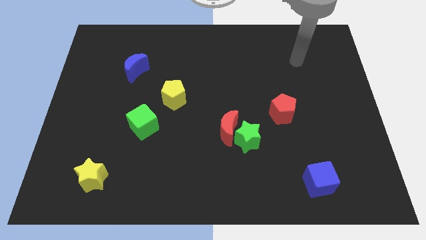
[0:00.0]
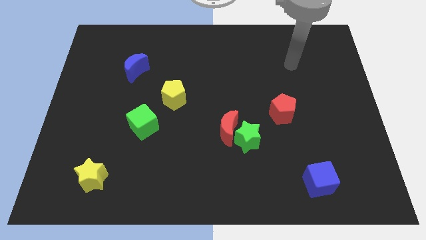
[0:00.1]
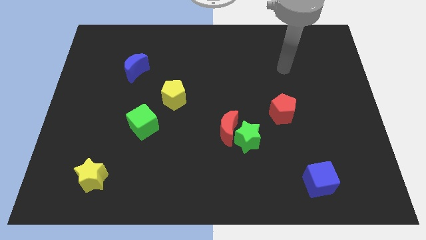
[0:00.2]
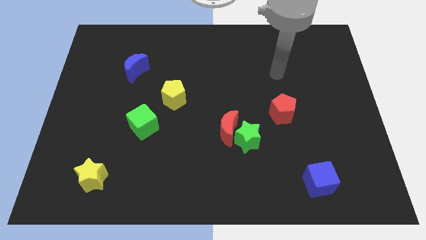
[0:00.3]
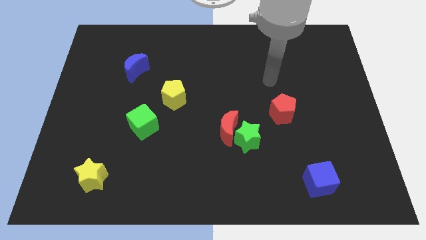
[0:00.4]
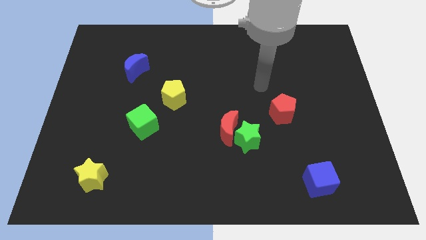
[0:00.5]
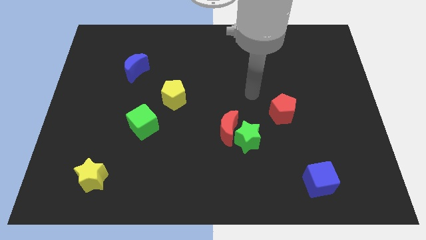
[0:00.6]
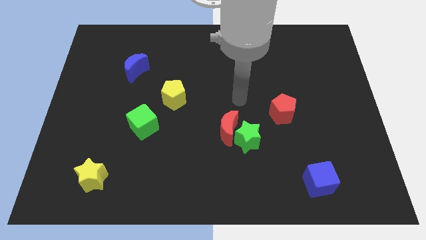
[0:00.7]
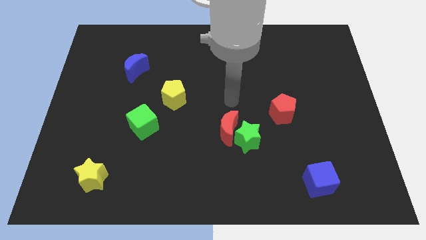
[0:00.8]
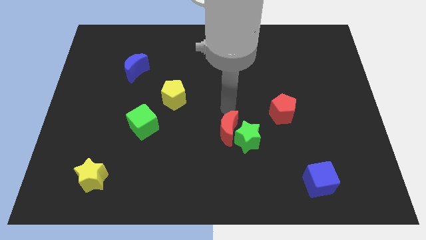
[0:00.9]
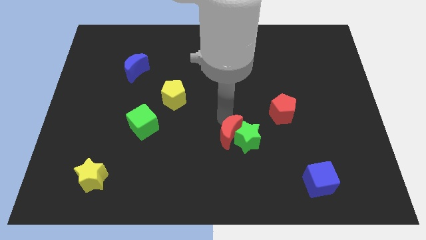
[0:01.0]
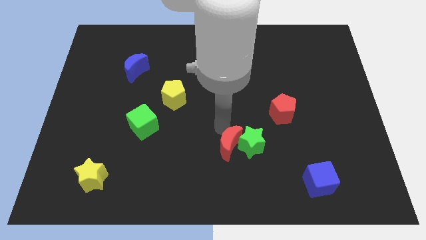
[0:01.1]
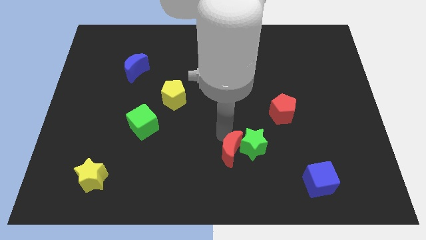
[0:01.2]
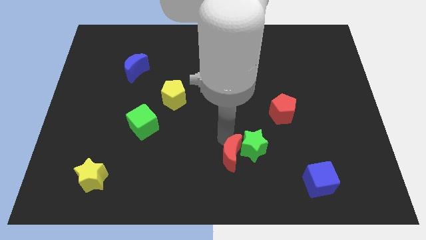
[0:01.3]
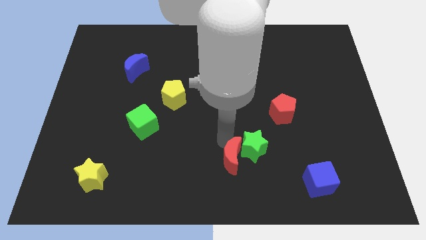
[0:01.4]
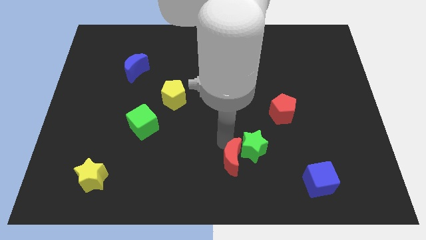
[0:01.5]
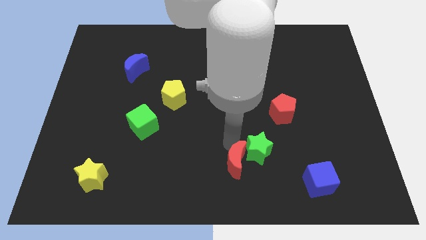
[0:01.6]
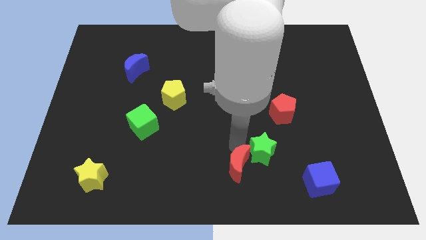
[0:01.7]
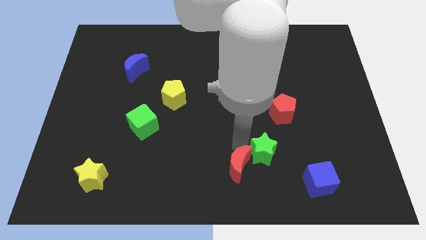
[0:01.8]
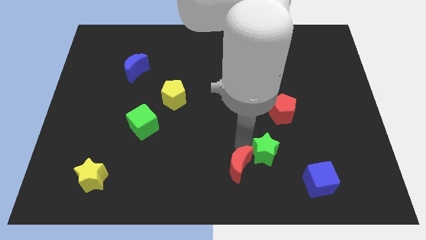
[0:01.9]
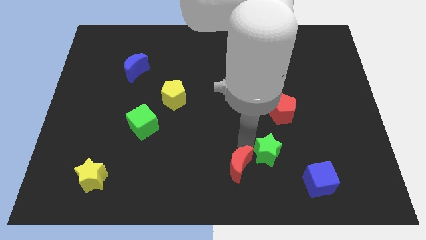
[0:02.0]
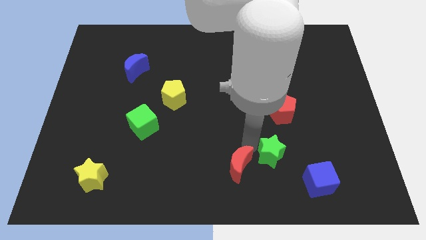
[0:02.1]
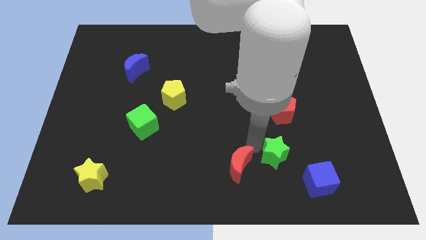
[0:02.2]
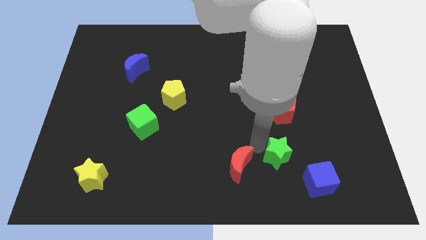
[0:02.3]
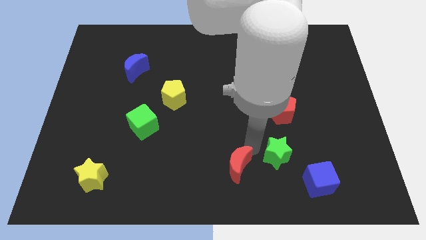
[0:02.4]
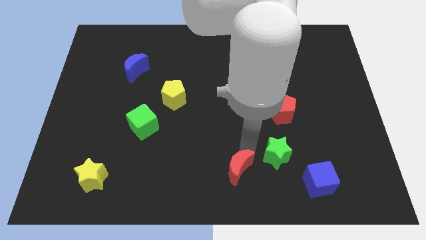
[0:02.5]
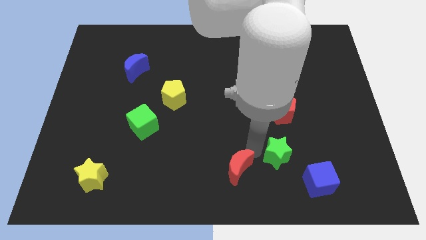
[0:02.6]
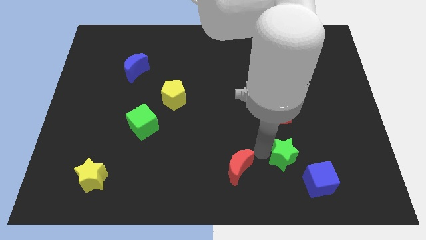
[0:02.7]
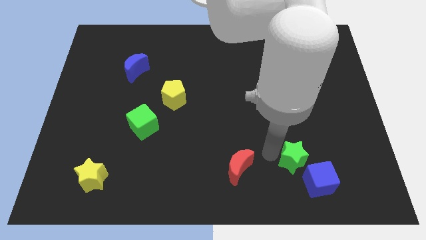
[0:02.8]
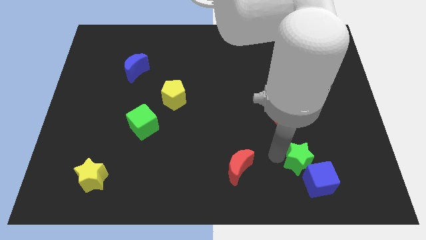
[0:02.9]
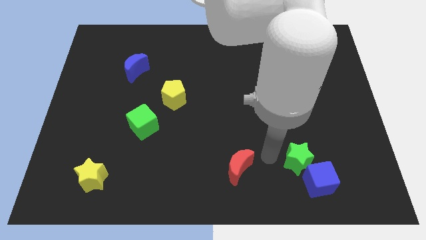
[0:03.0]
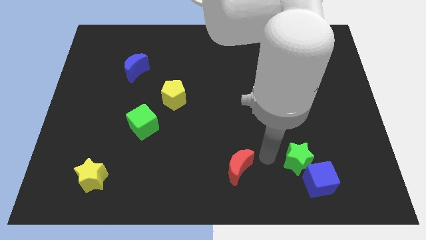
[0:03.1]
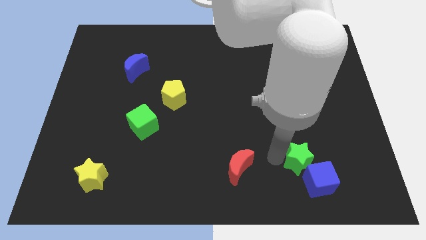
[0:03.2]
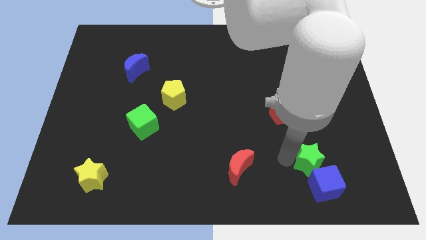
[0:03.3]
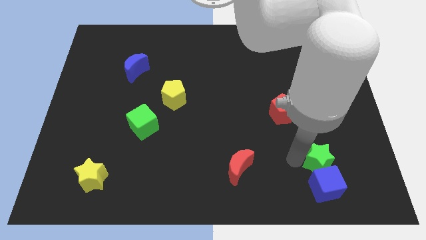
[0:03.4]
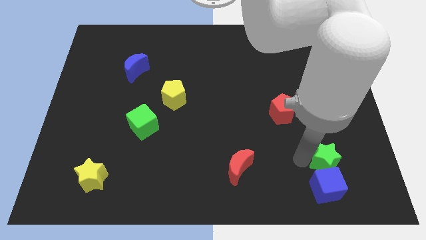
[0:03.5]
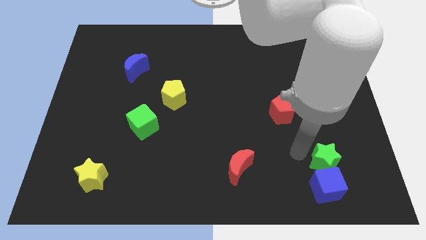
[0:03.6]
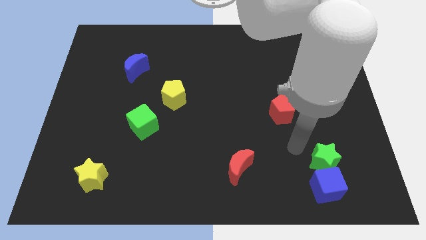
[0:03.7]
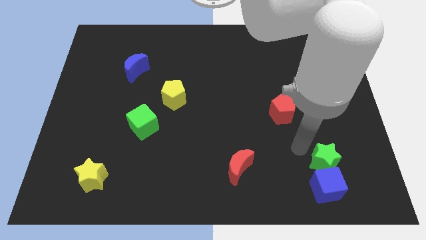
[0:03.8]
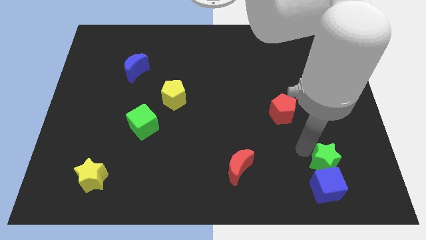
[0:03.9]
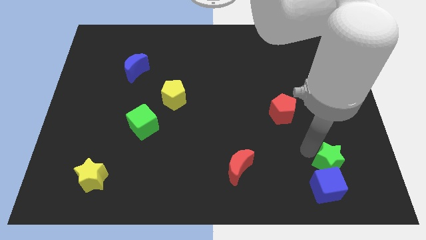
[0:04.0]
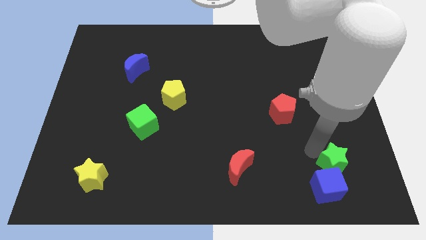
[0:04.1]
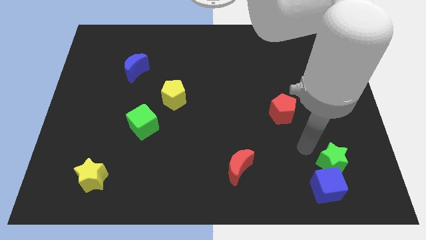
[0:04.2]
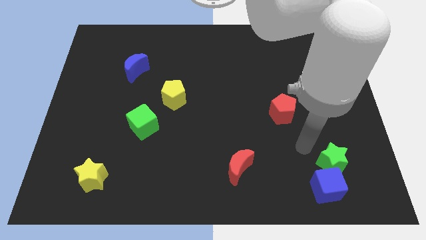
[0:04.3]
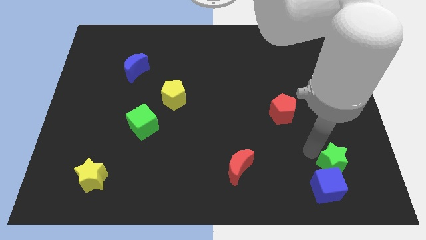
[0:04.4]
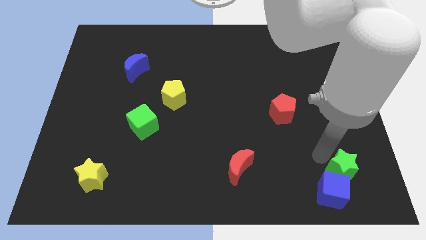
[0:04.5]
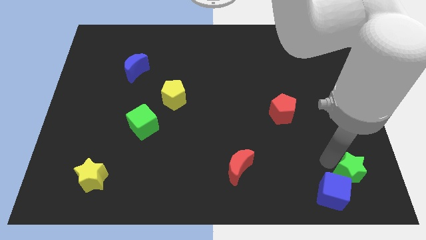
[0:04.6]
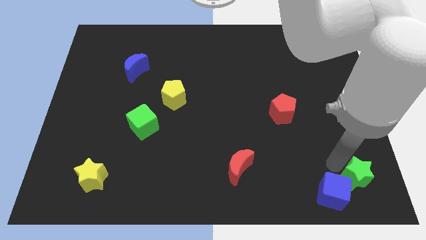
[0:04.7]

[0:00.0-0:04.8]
put the green star to the bottom right

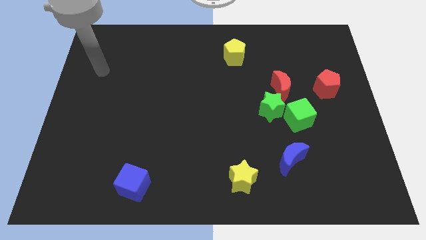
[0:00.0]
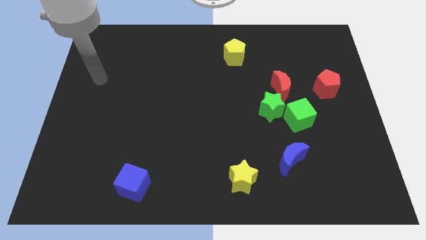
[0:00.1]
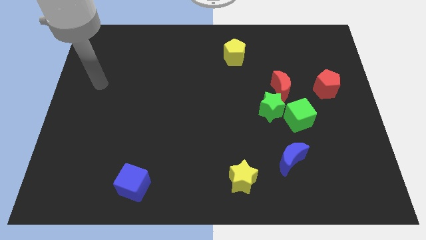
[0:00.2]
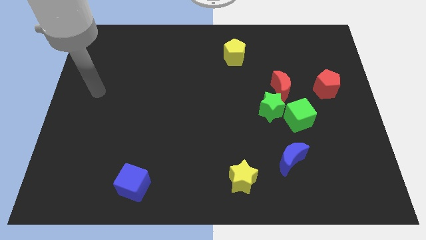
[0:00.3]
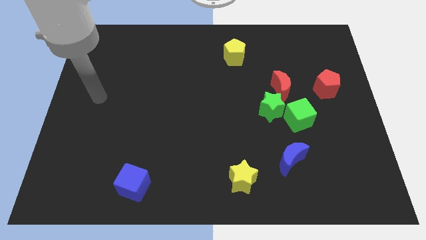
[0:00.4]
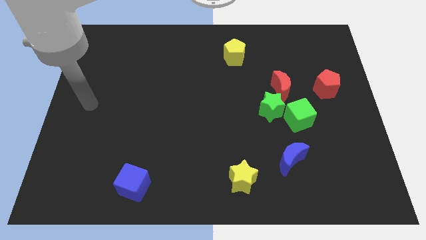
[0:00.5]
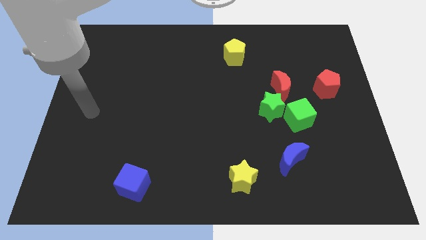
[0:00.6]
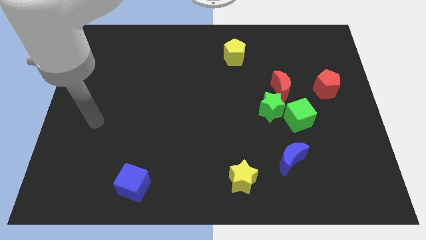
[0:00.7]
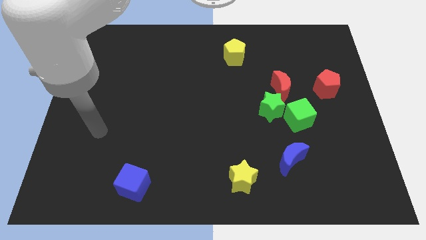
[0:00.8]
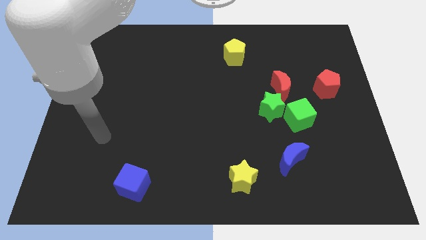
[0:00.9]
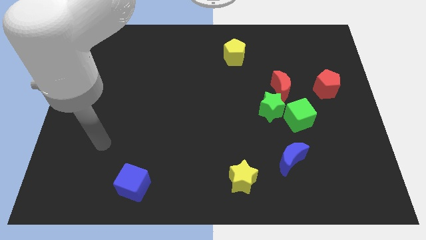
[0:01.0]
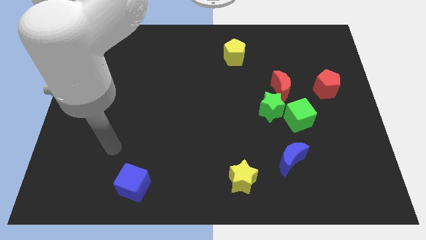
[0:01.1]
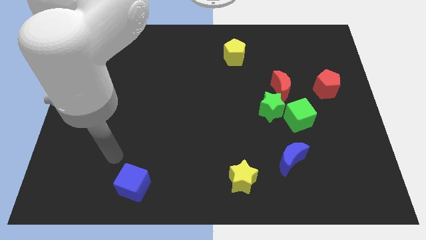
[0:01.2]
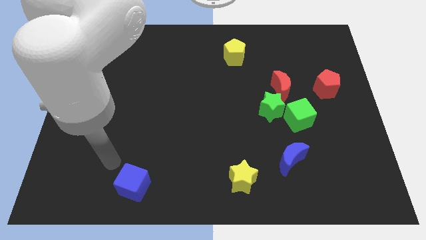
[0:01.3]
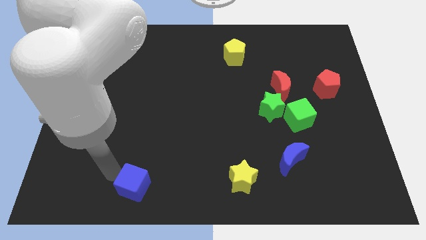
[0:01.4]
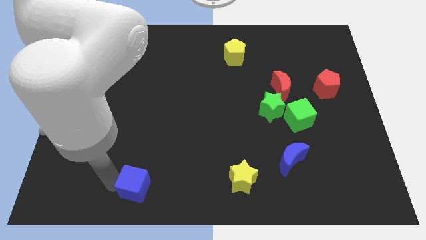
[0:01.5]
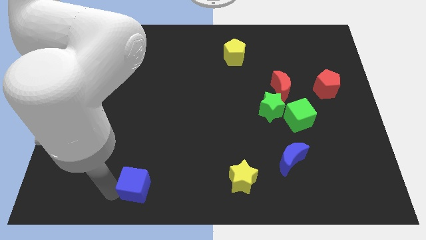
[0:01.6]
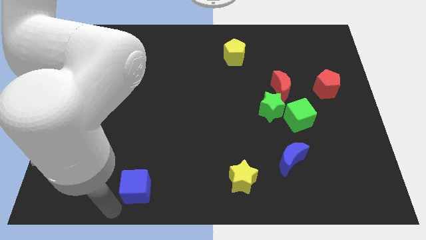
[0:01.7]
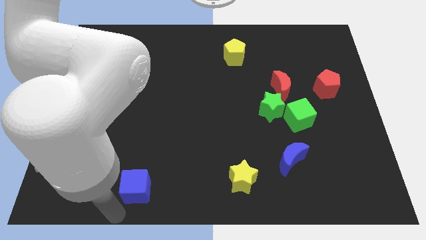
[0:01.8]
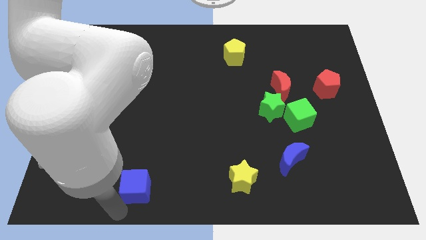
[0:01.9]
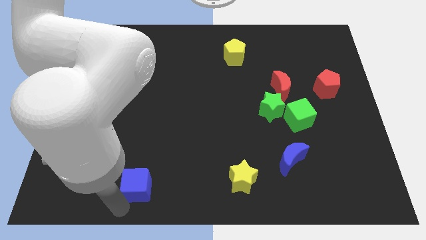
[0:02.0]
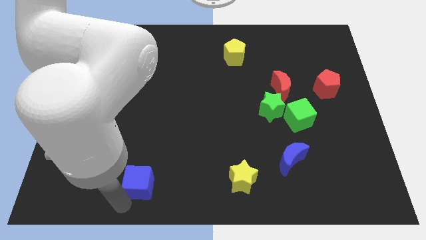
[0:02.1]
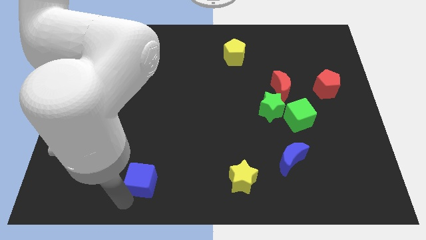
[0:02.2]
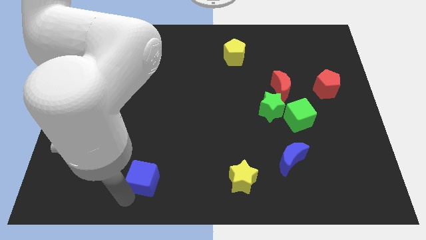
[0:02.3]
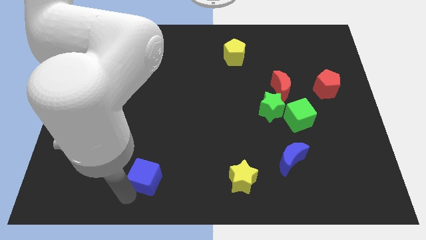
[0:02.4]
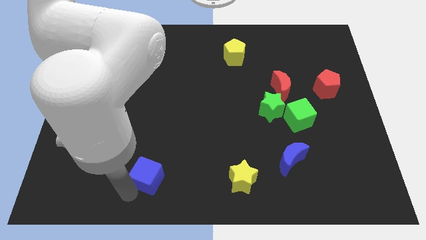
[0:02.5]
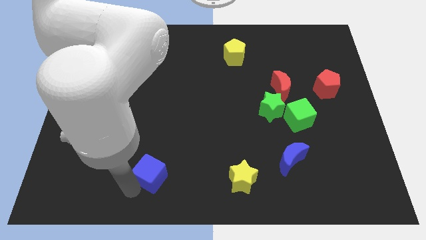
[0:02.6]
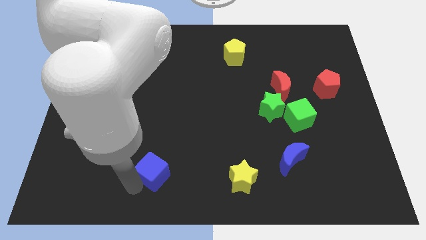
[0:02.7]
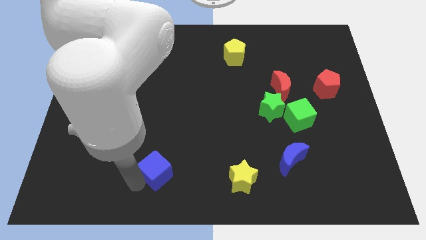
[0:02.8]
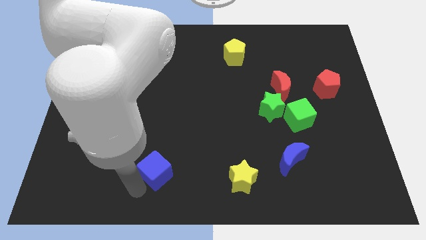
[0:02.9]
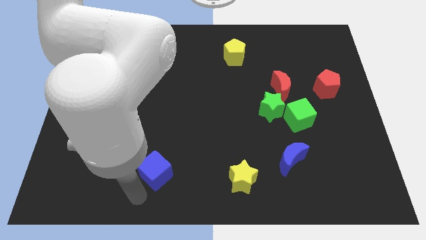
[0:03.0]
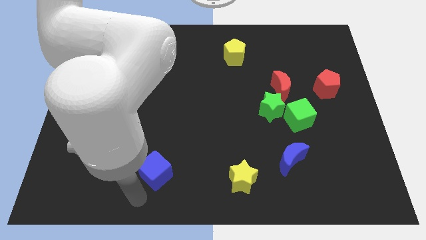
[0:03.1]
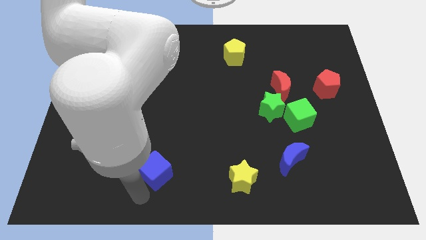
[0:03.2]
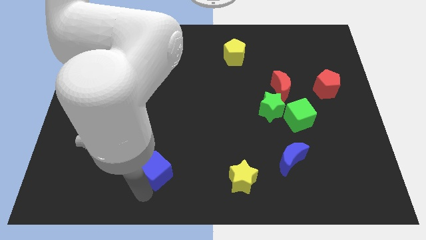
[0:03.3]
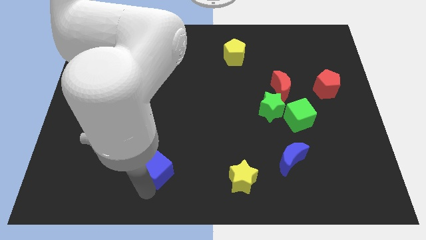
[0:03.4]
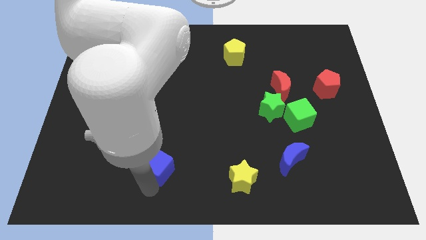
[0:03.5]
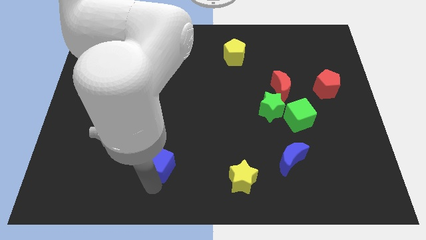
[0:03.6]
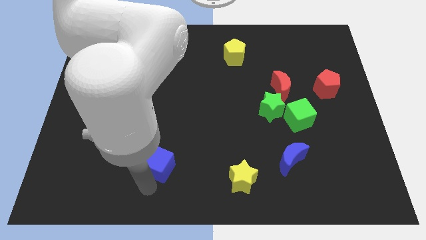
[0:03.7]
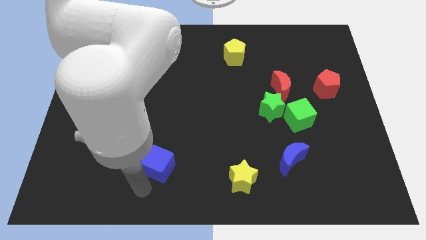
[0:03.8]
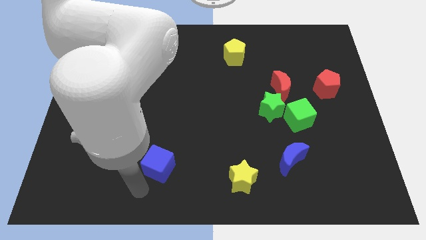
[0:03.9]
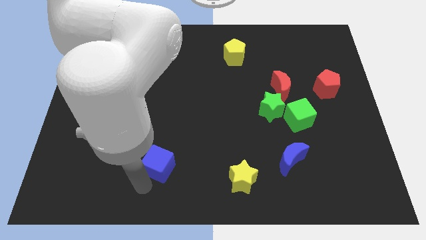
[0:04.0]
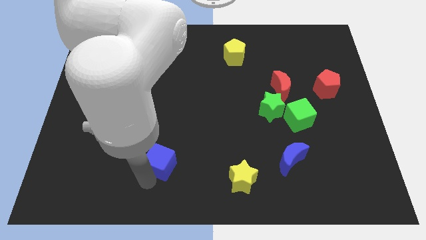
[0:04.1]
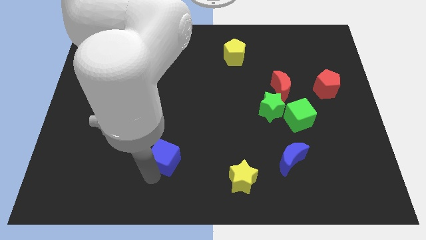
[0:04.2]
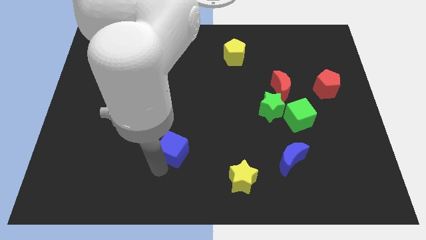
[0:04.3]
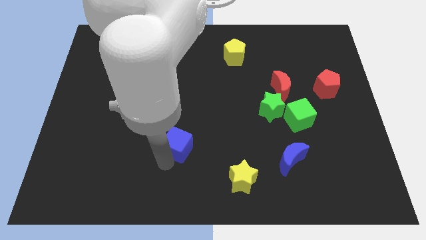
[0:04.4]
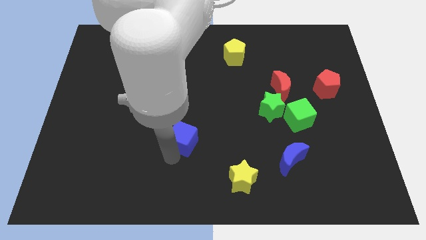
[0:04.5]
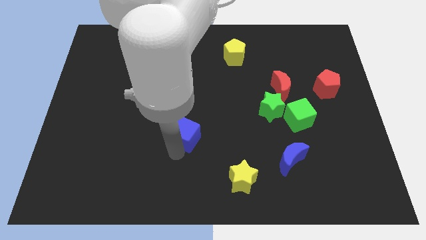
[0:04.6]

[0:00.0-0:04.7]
push the blue cube to the center of the board
